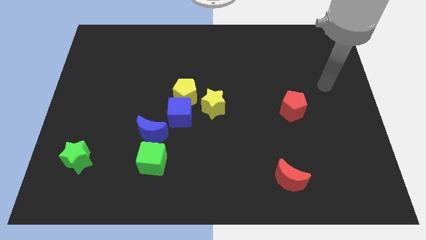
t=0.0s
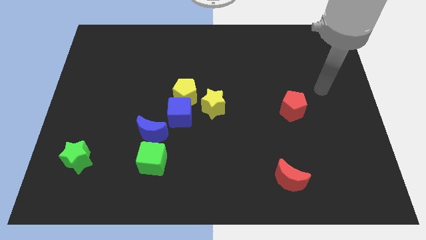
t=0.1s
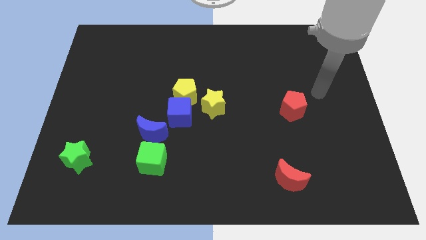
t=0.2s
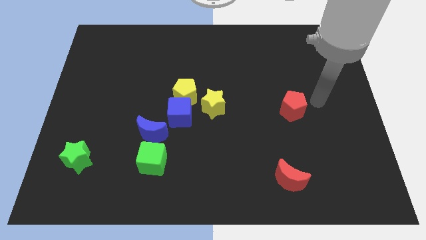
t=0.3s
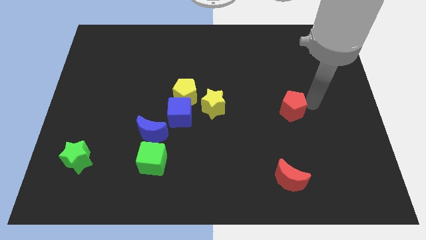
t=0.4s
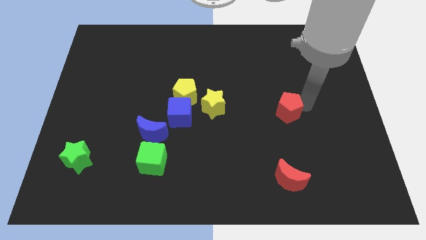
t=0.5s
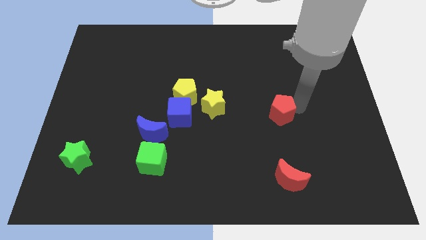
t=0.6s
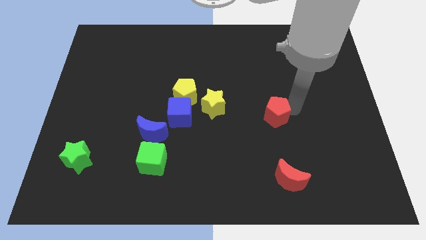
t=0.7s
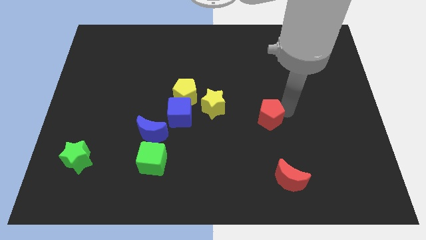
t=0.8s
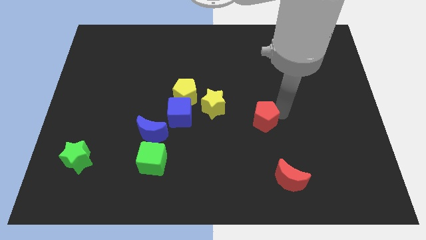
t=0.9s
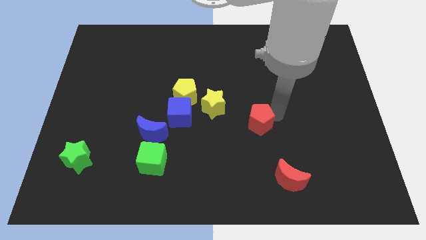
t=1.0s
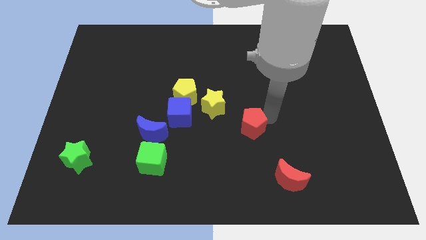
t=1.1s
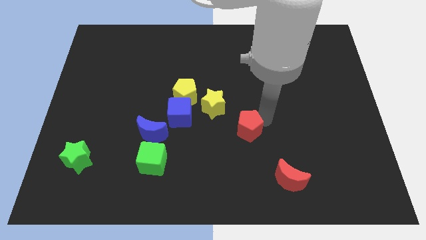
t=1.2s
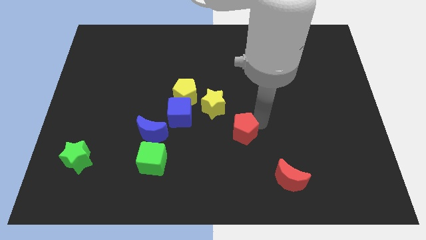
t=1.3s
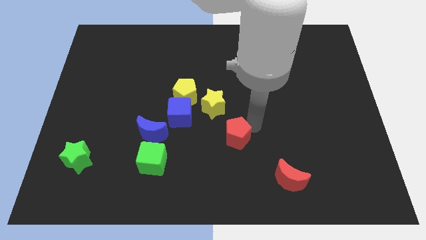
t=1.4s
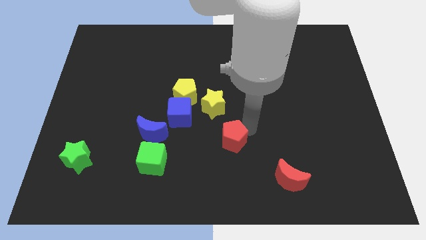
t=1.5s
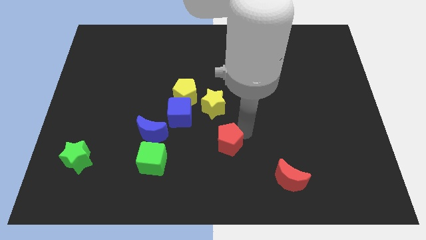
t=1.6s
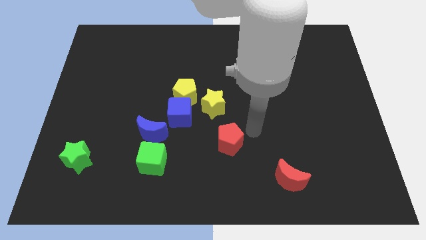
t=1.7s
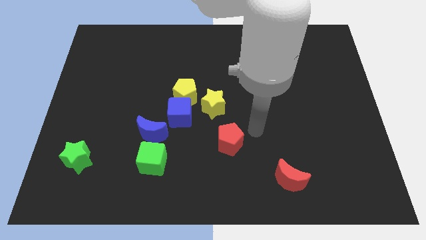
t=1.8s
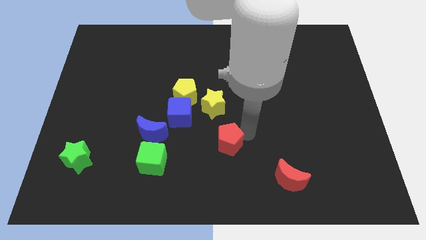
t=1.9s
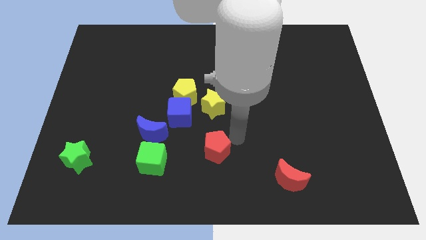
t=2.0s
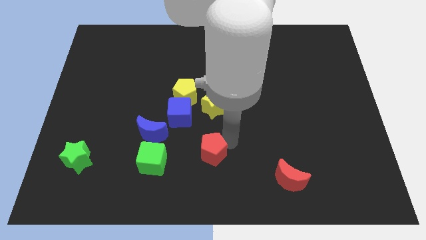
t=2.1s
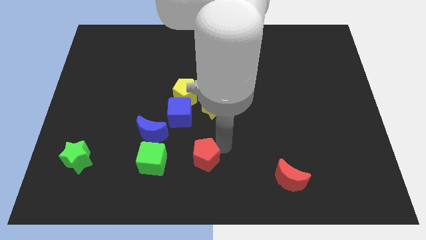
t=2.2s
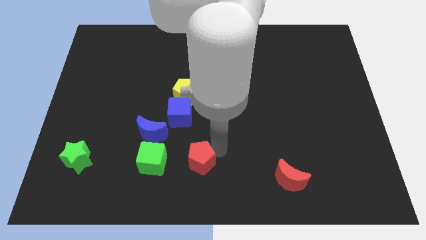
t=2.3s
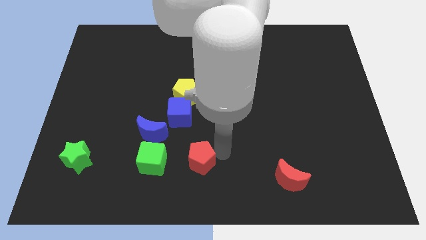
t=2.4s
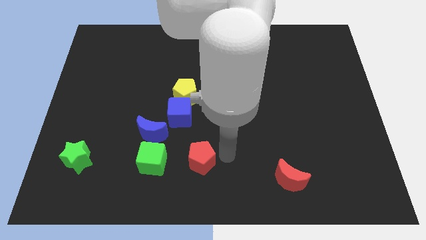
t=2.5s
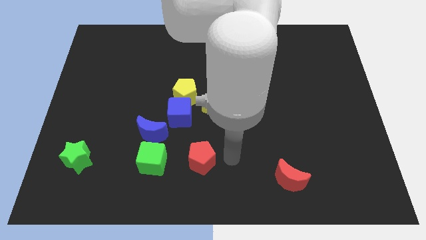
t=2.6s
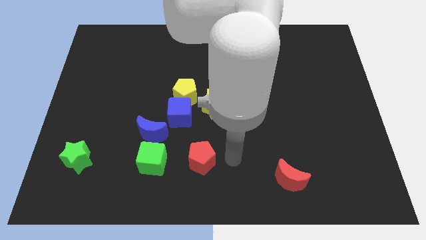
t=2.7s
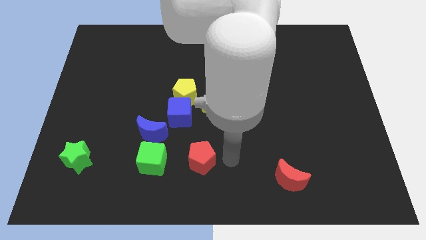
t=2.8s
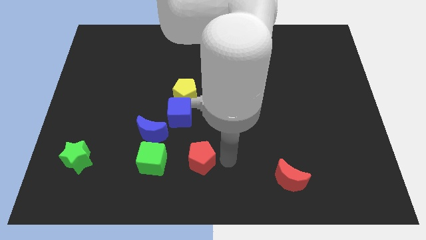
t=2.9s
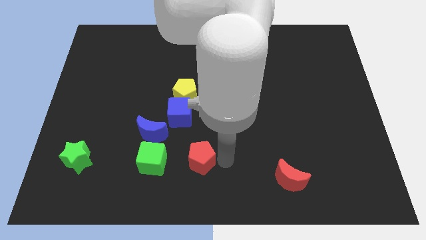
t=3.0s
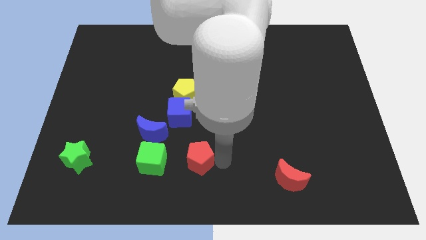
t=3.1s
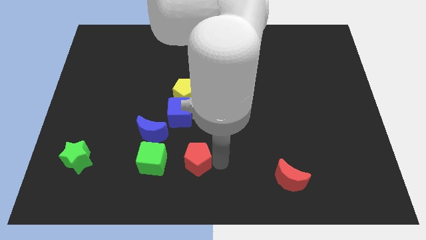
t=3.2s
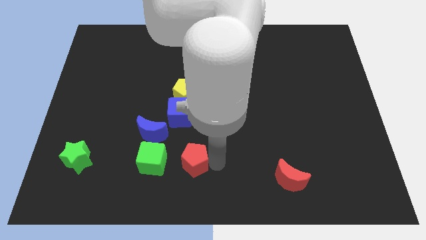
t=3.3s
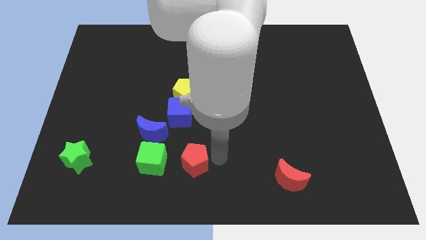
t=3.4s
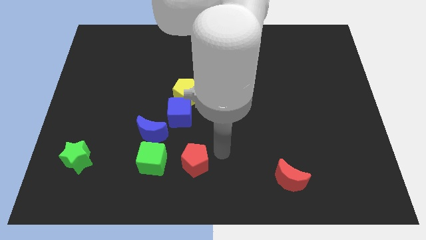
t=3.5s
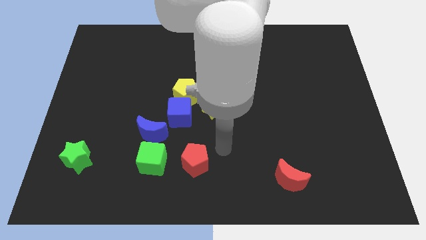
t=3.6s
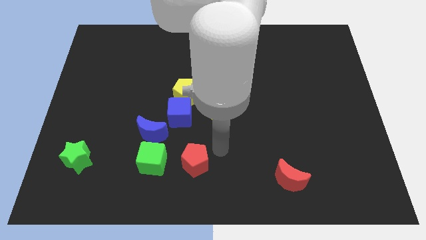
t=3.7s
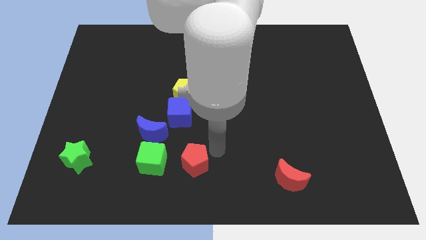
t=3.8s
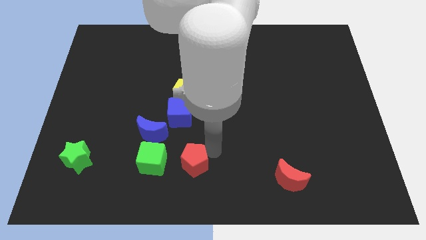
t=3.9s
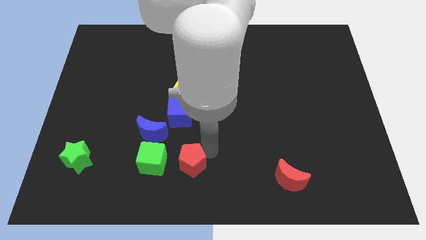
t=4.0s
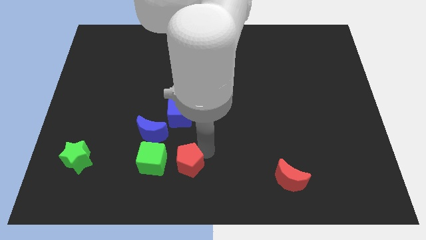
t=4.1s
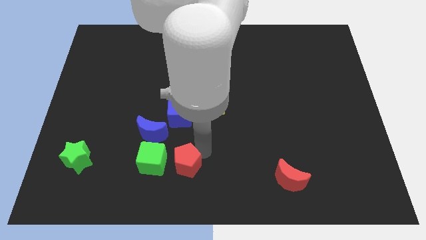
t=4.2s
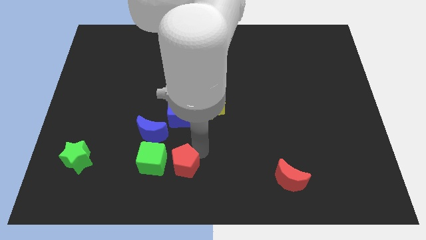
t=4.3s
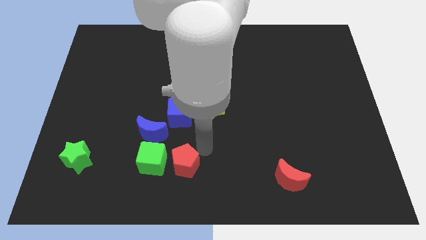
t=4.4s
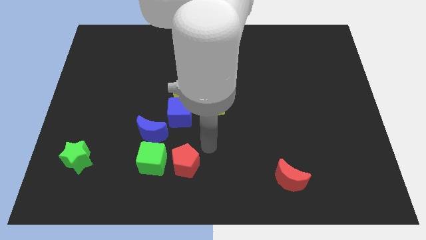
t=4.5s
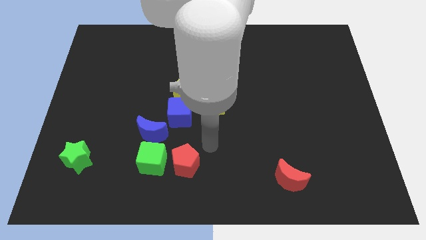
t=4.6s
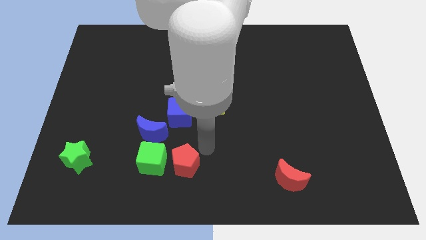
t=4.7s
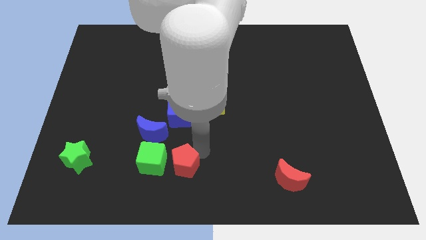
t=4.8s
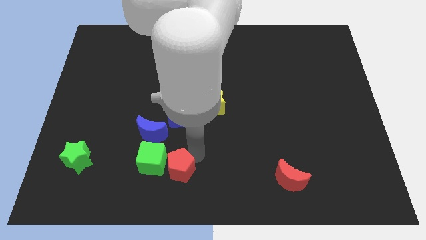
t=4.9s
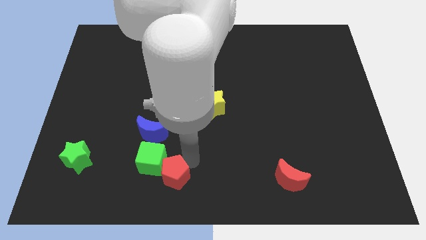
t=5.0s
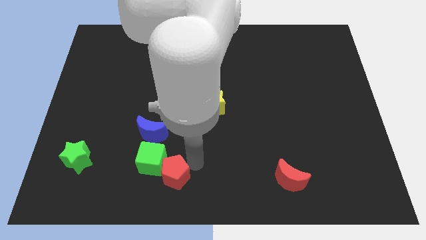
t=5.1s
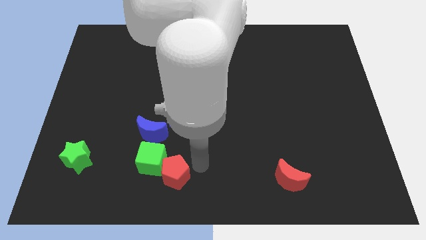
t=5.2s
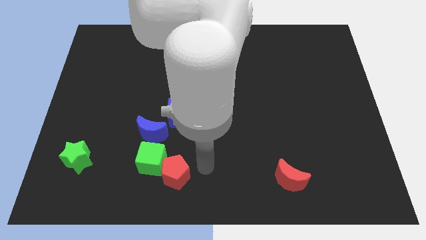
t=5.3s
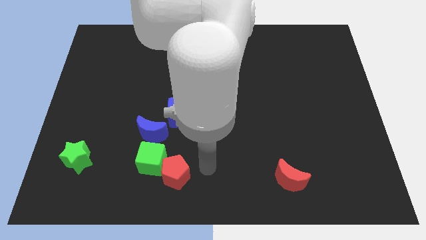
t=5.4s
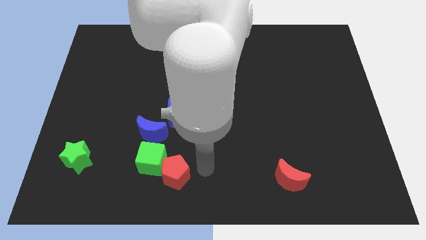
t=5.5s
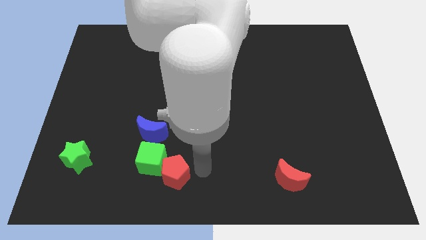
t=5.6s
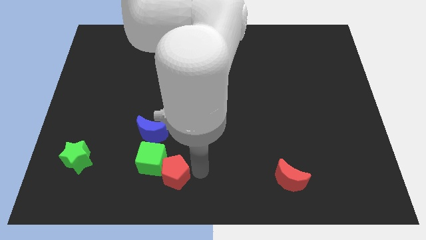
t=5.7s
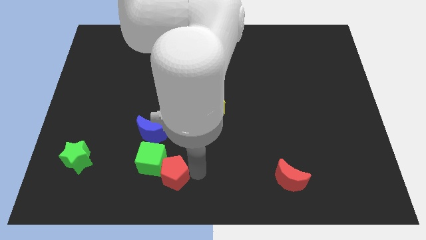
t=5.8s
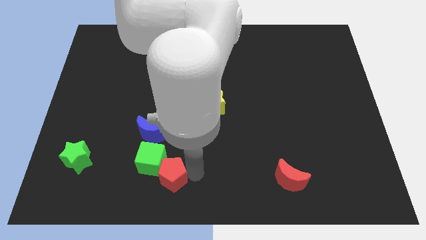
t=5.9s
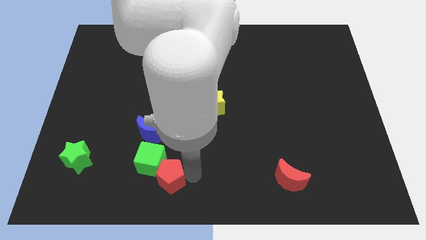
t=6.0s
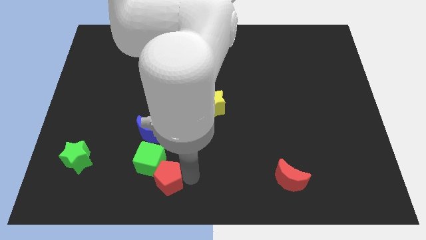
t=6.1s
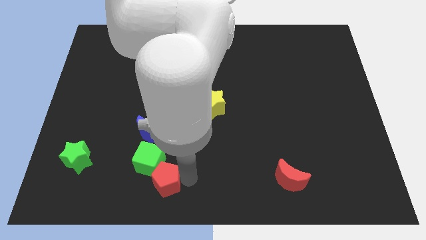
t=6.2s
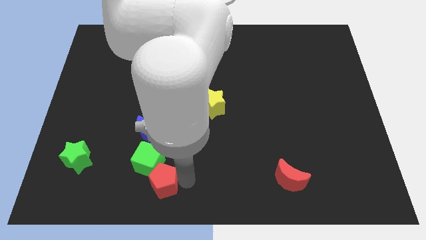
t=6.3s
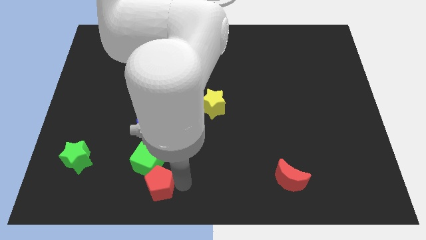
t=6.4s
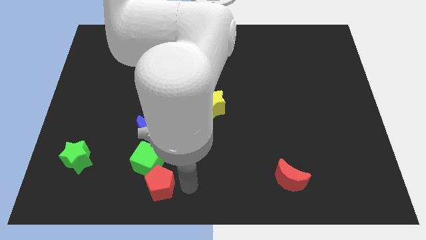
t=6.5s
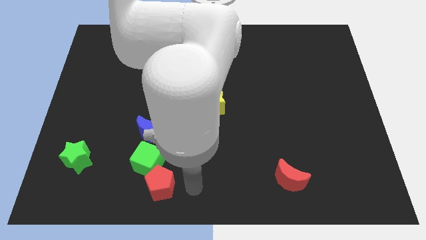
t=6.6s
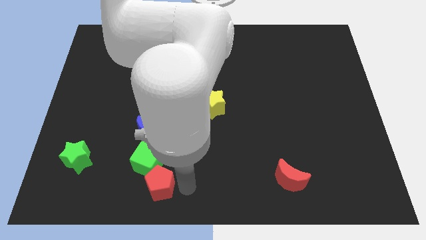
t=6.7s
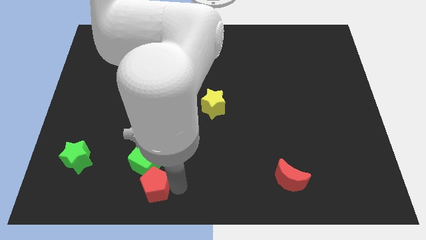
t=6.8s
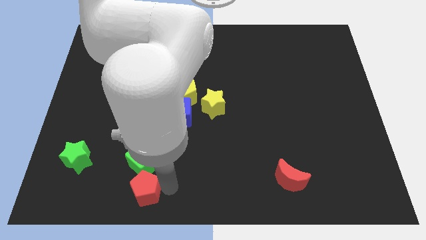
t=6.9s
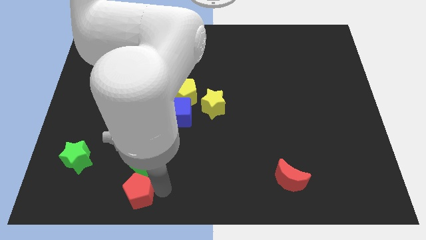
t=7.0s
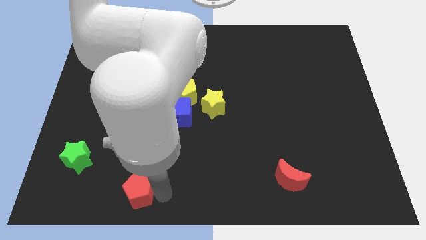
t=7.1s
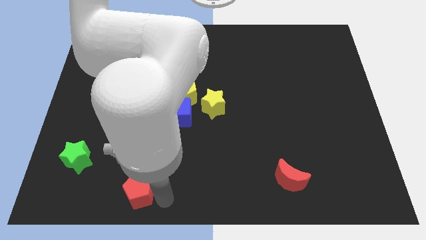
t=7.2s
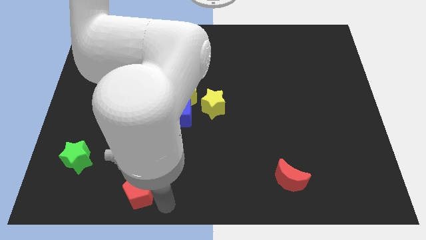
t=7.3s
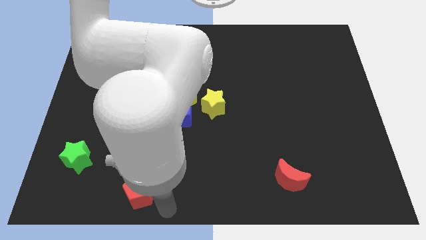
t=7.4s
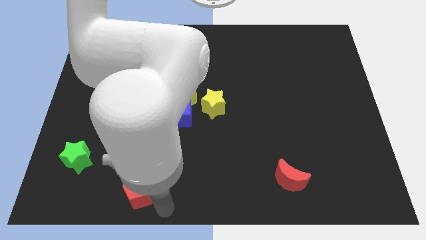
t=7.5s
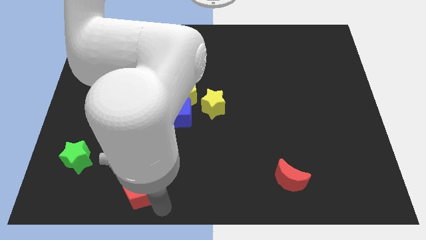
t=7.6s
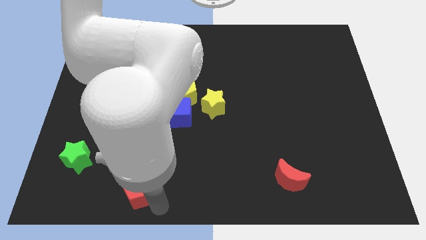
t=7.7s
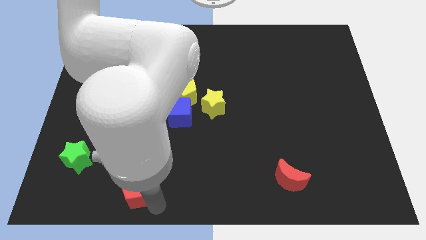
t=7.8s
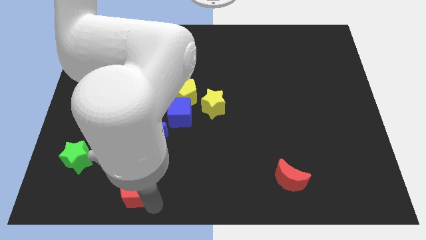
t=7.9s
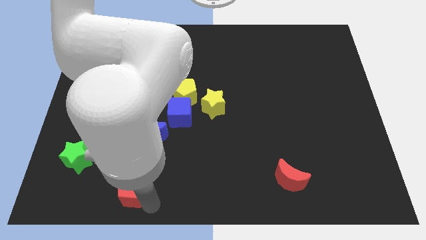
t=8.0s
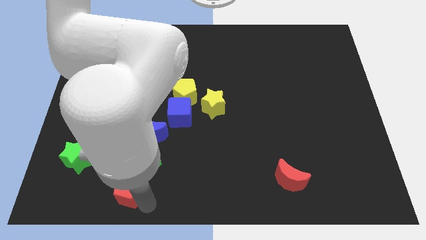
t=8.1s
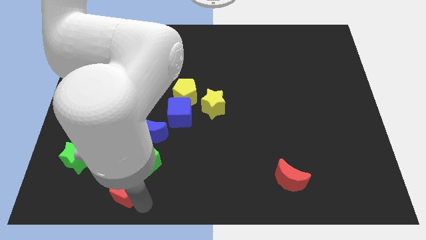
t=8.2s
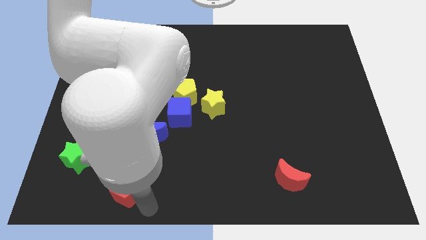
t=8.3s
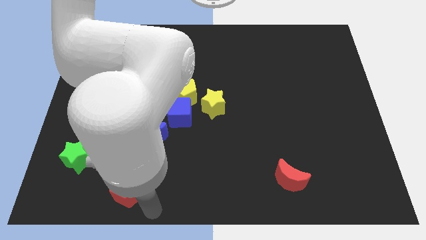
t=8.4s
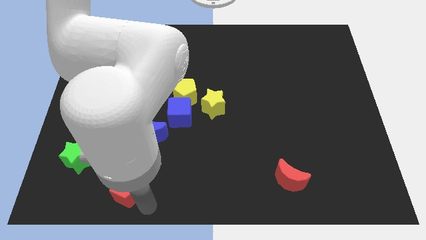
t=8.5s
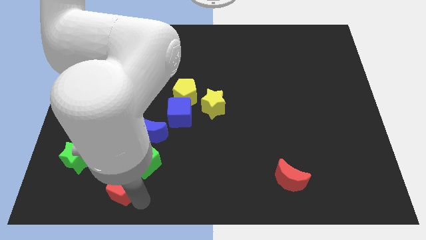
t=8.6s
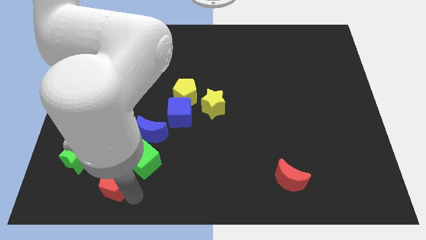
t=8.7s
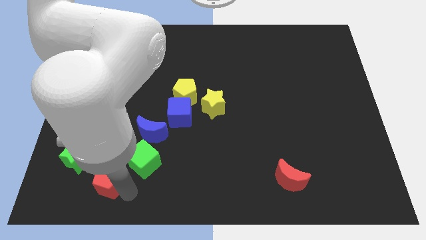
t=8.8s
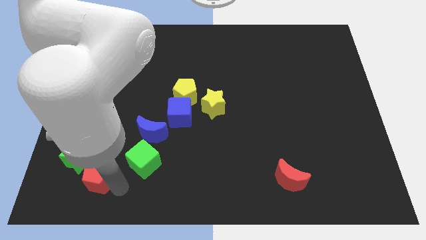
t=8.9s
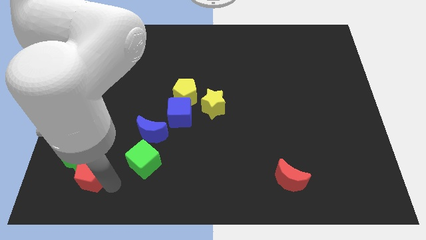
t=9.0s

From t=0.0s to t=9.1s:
move the red pentagon towards the green star
